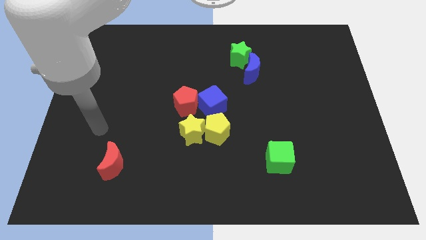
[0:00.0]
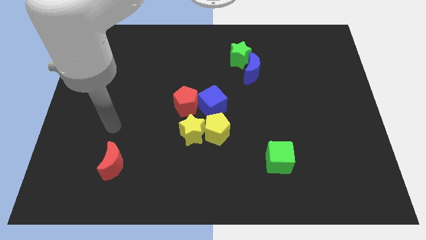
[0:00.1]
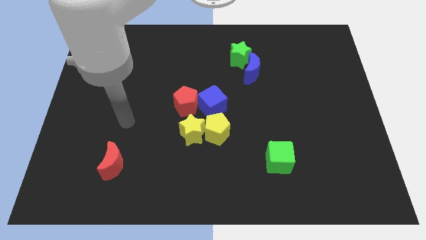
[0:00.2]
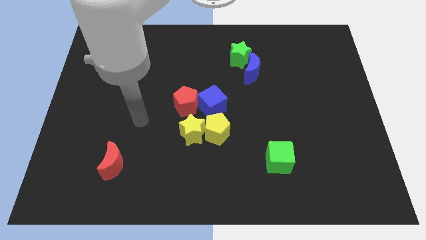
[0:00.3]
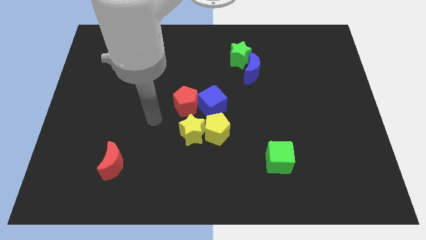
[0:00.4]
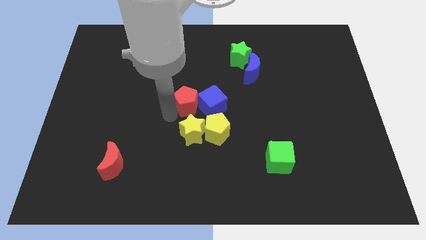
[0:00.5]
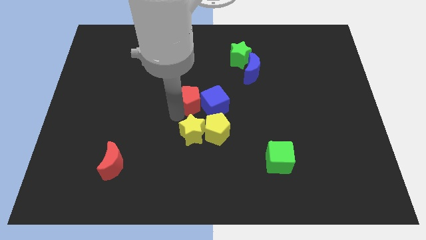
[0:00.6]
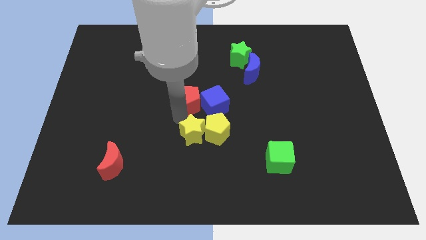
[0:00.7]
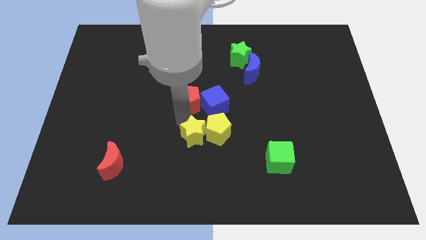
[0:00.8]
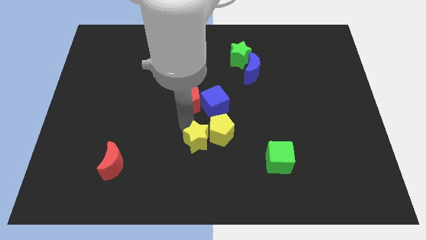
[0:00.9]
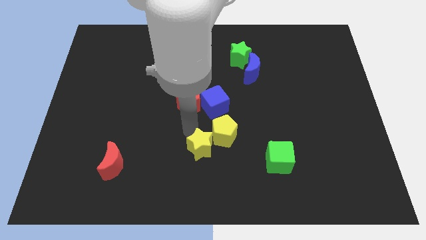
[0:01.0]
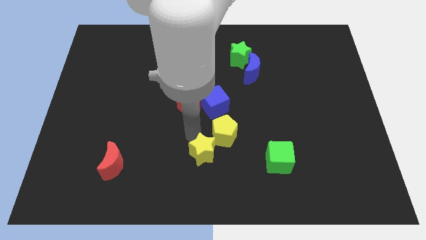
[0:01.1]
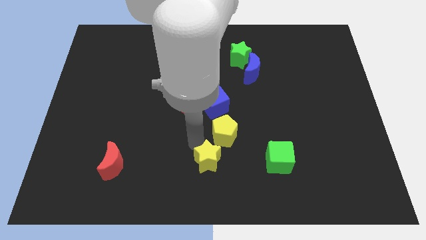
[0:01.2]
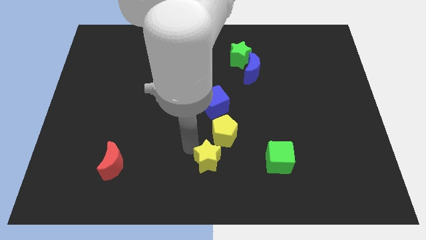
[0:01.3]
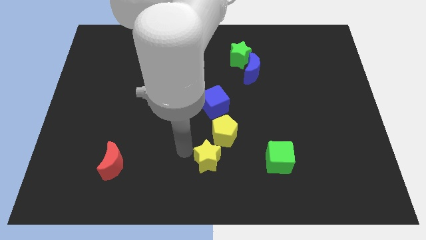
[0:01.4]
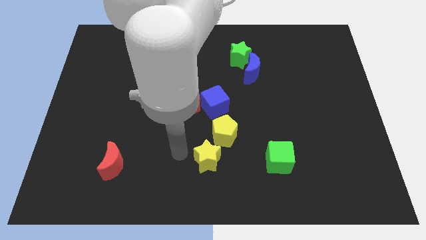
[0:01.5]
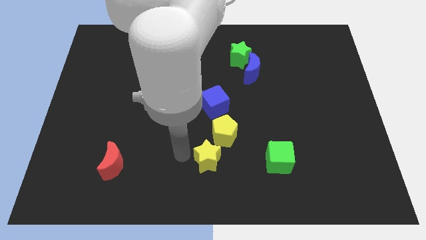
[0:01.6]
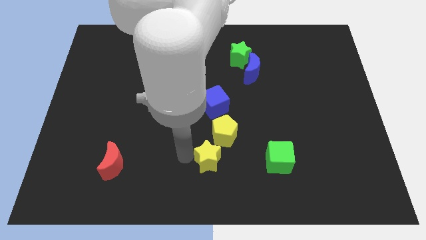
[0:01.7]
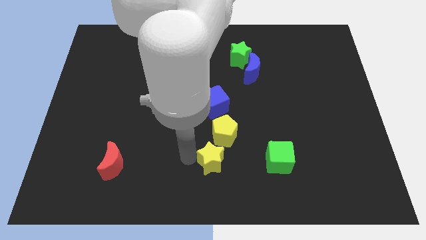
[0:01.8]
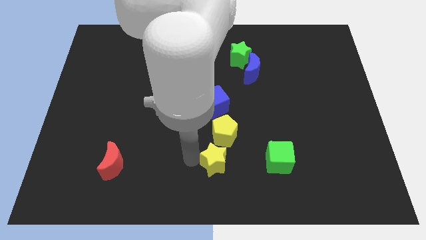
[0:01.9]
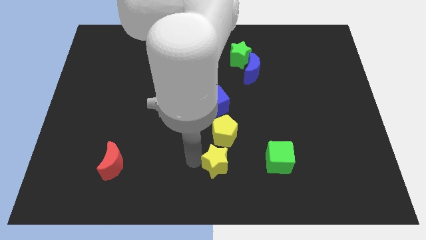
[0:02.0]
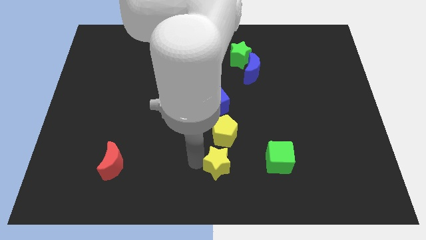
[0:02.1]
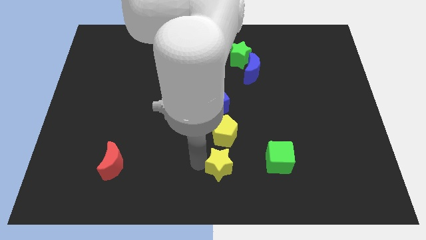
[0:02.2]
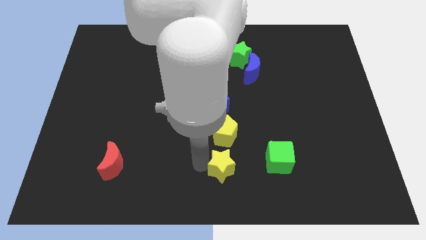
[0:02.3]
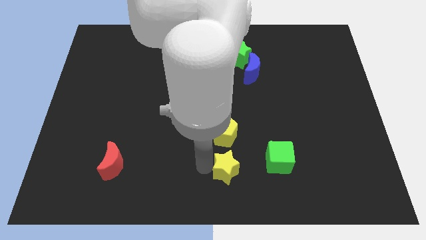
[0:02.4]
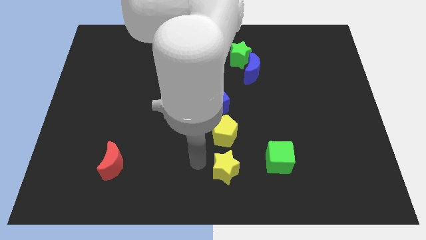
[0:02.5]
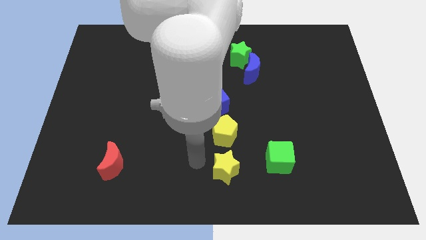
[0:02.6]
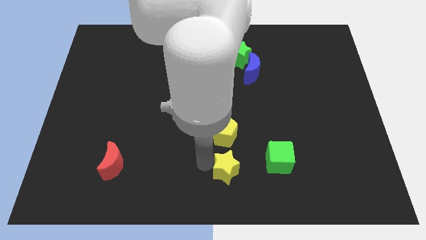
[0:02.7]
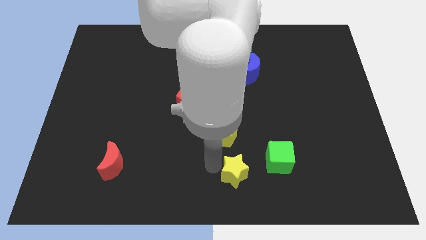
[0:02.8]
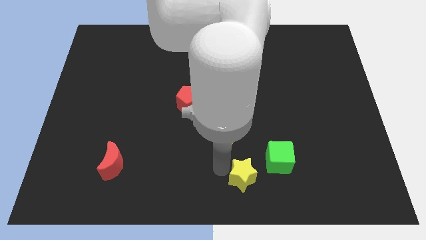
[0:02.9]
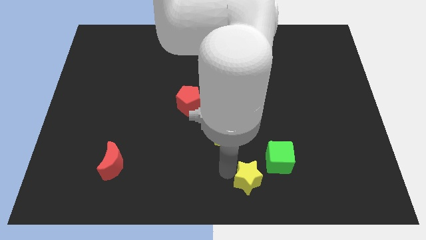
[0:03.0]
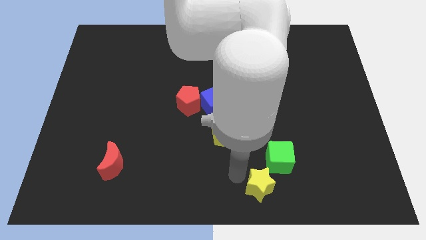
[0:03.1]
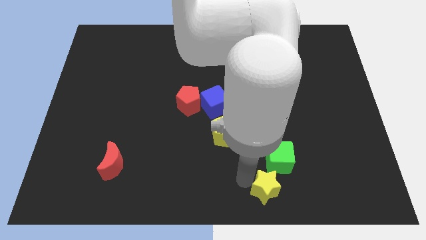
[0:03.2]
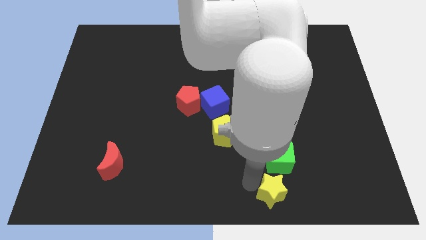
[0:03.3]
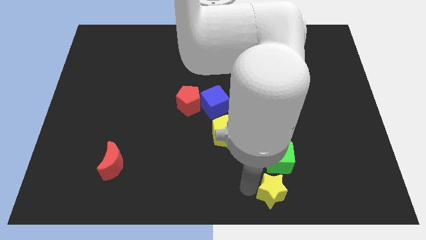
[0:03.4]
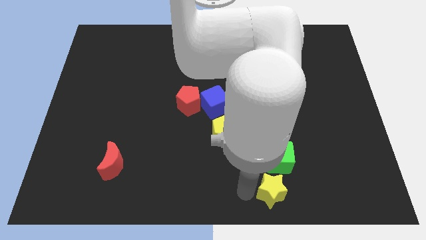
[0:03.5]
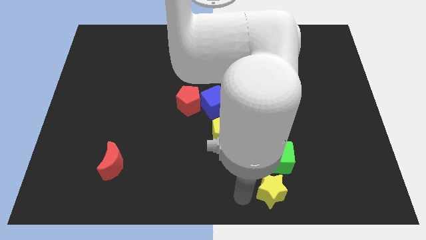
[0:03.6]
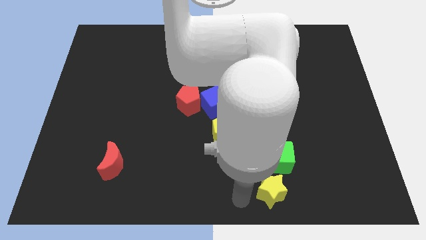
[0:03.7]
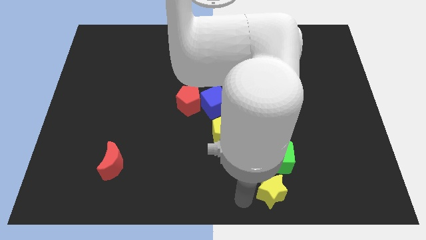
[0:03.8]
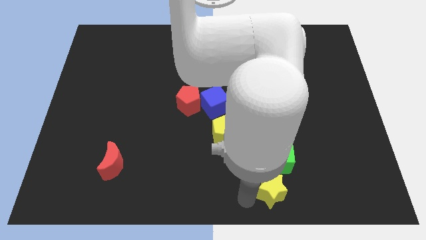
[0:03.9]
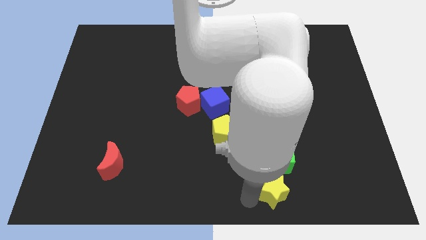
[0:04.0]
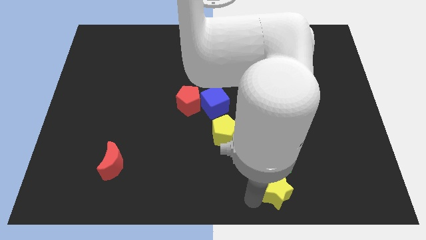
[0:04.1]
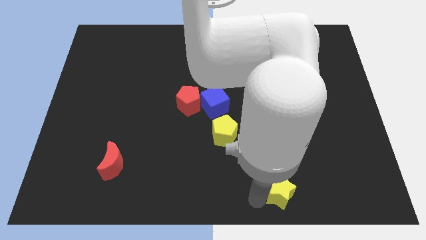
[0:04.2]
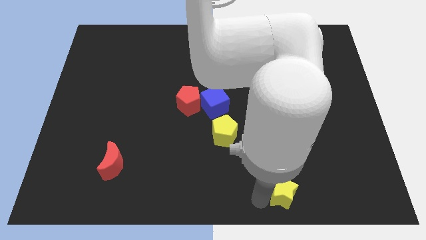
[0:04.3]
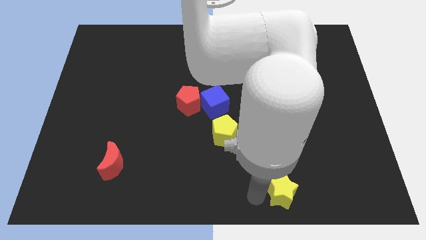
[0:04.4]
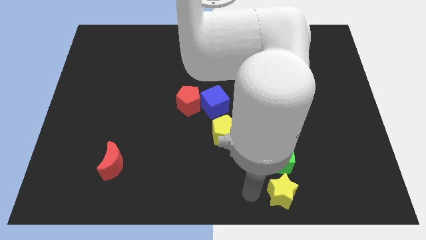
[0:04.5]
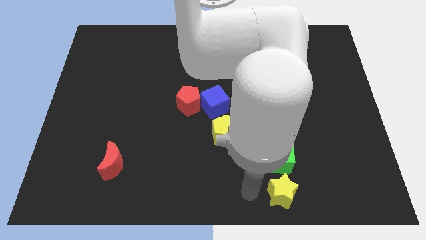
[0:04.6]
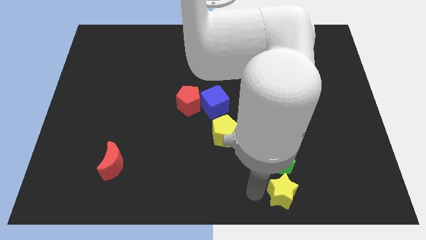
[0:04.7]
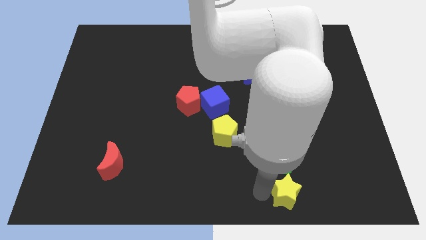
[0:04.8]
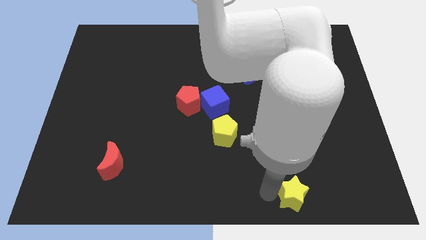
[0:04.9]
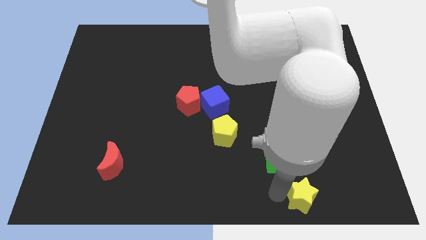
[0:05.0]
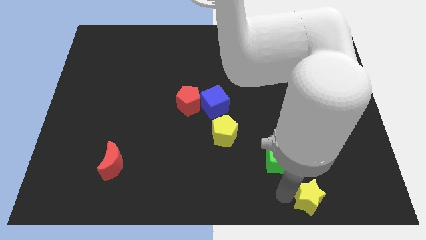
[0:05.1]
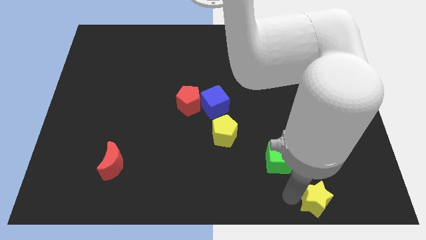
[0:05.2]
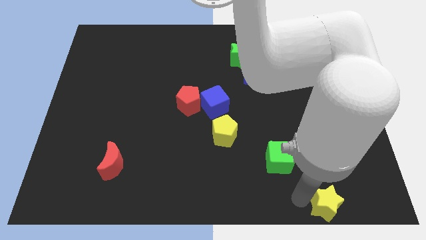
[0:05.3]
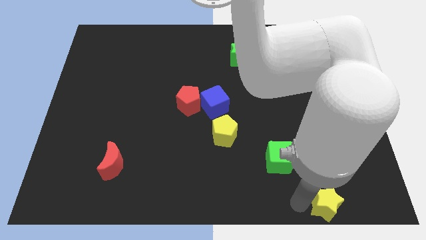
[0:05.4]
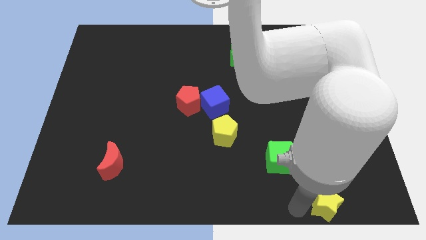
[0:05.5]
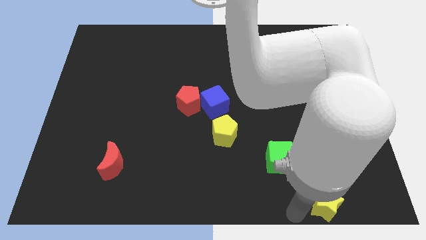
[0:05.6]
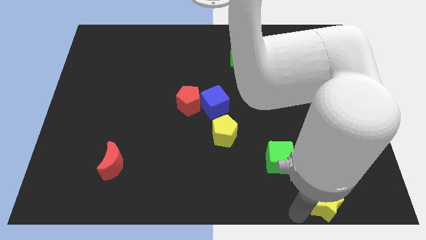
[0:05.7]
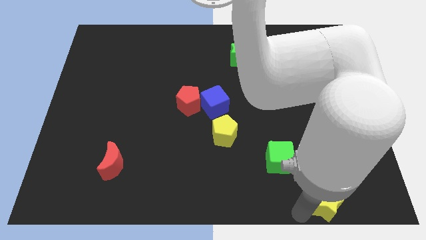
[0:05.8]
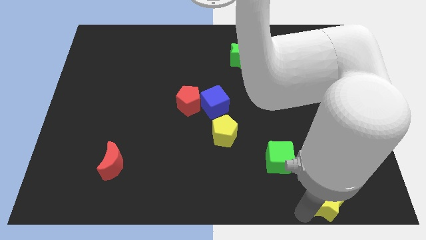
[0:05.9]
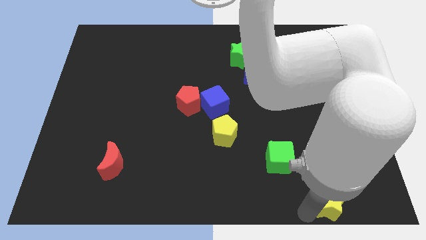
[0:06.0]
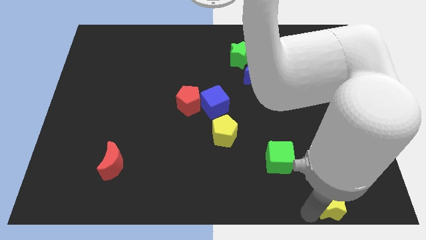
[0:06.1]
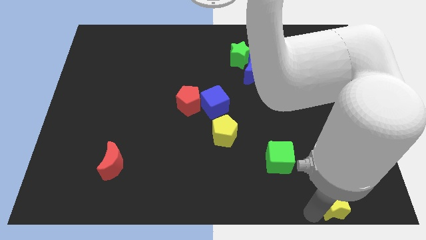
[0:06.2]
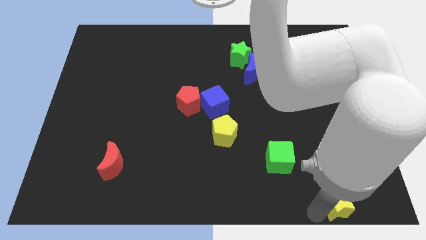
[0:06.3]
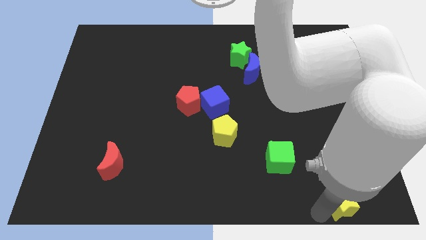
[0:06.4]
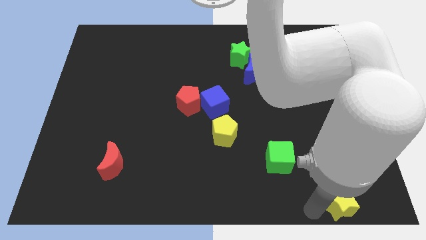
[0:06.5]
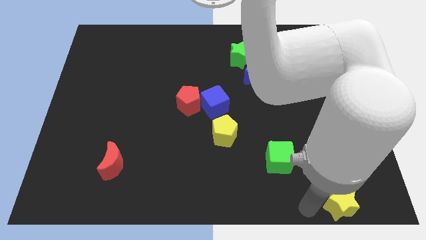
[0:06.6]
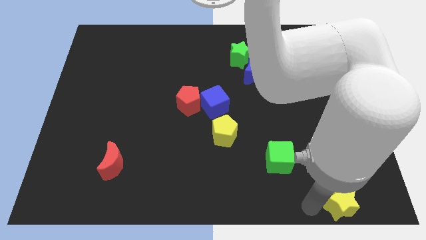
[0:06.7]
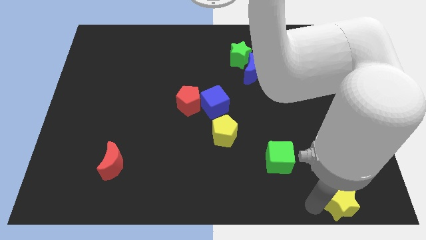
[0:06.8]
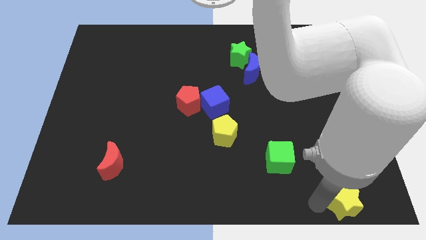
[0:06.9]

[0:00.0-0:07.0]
move the yellow star to the bottom right of the board
